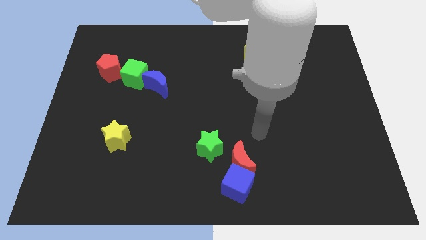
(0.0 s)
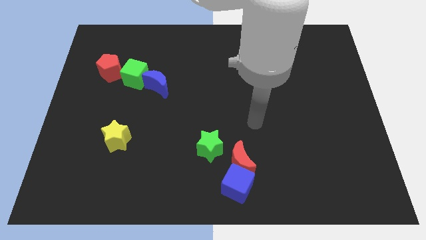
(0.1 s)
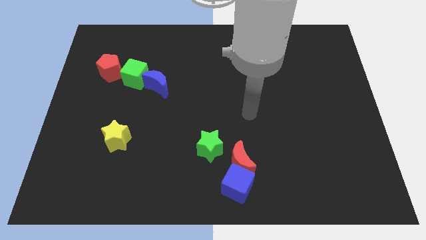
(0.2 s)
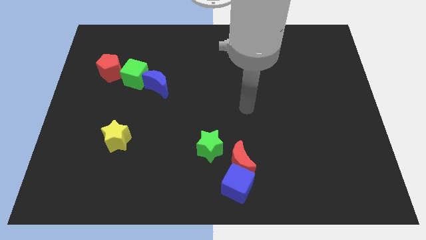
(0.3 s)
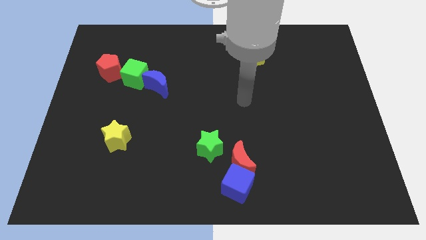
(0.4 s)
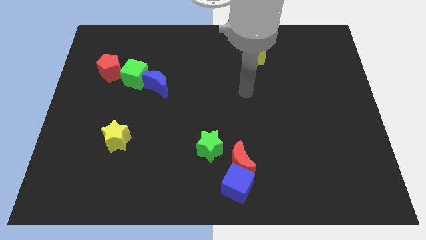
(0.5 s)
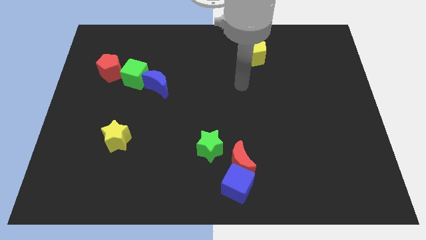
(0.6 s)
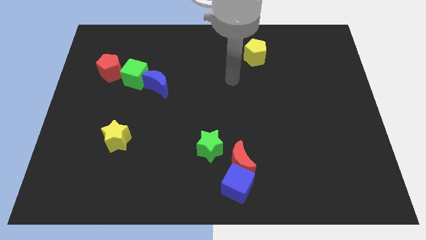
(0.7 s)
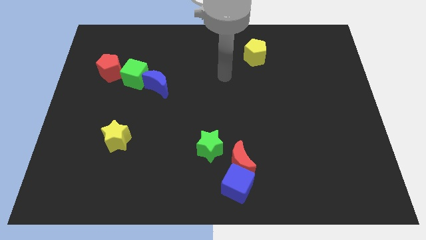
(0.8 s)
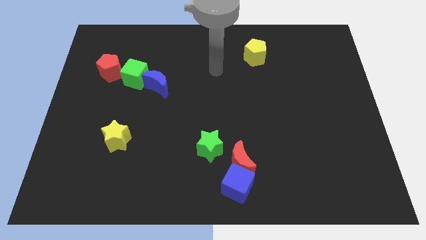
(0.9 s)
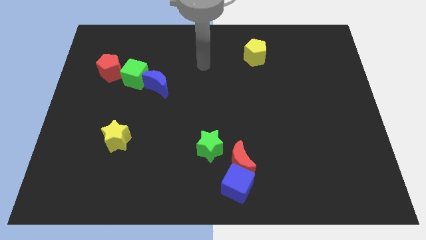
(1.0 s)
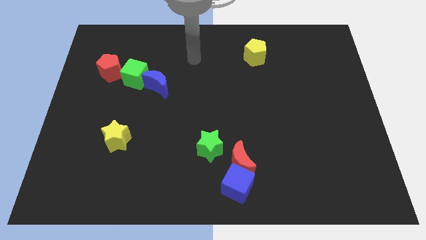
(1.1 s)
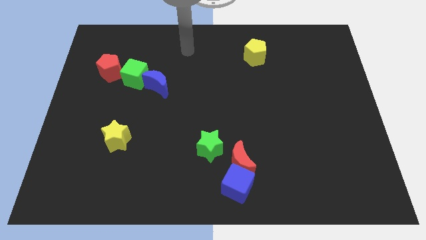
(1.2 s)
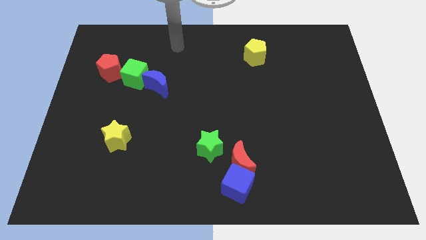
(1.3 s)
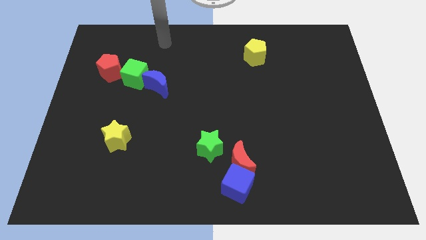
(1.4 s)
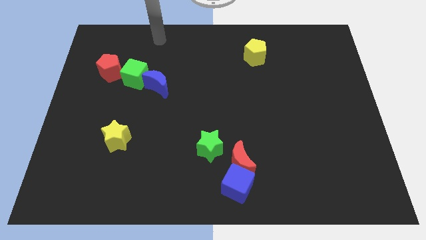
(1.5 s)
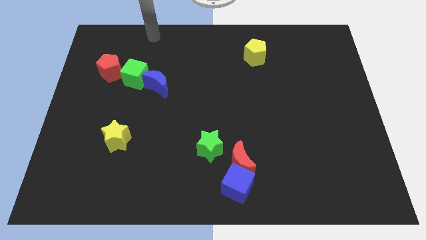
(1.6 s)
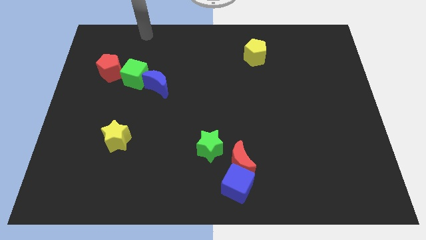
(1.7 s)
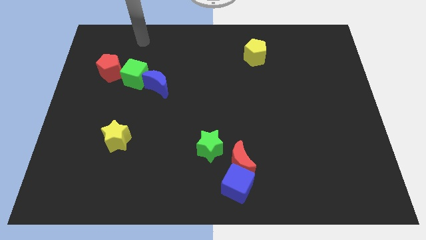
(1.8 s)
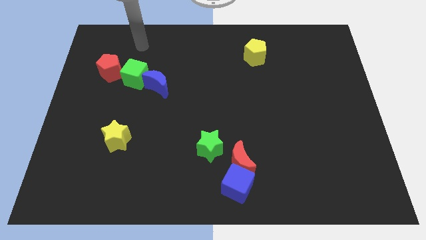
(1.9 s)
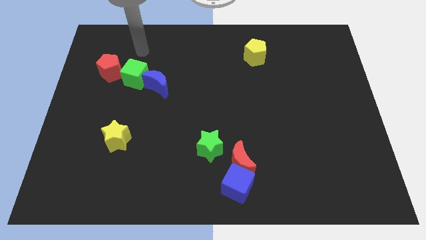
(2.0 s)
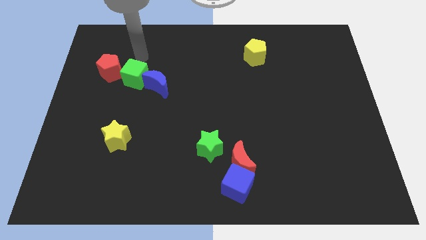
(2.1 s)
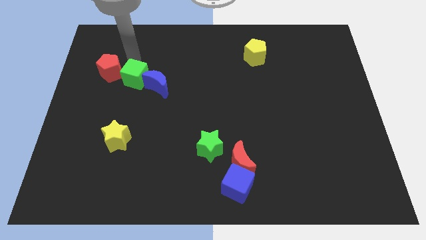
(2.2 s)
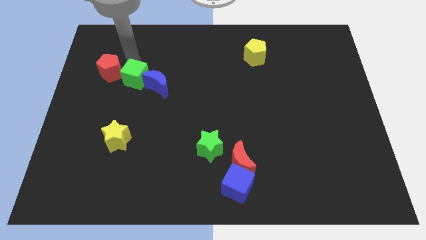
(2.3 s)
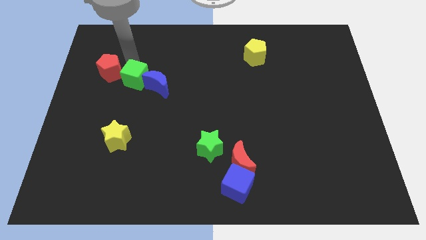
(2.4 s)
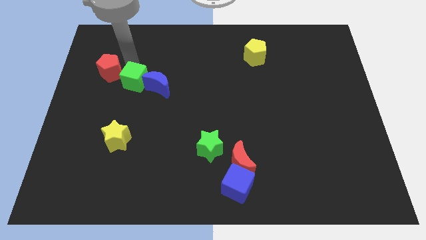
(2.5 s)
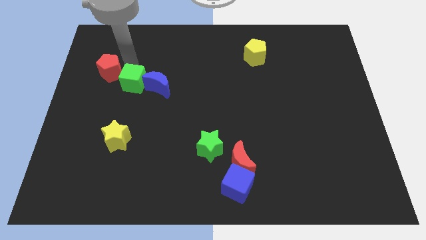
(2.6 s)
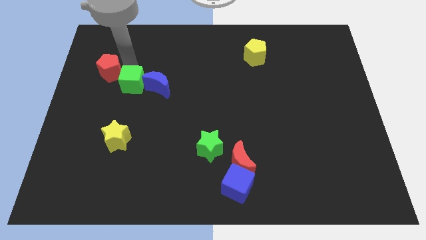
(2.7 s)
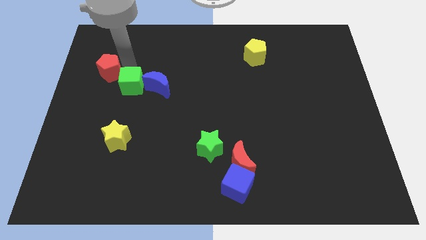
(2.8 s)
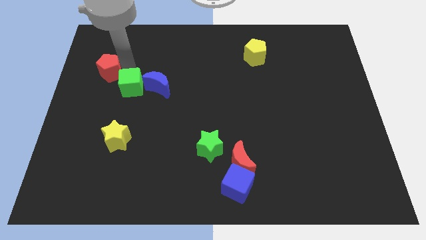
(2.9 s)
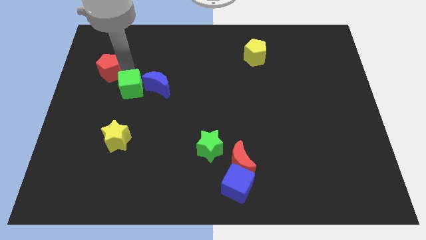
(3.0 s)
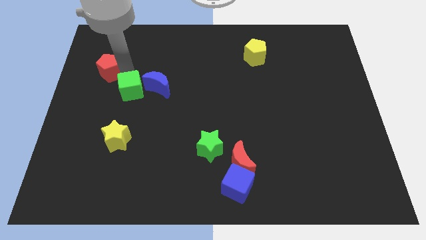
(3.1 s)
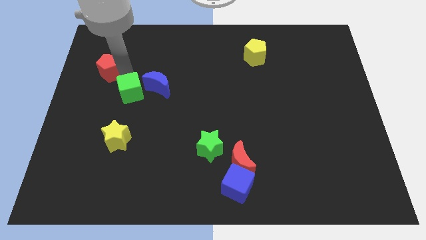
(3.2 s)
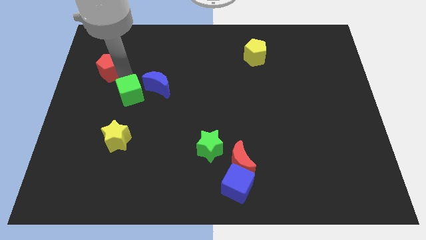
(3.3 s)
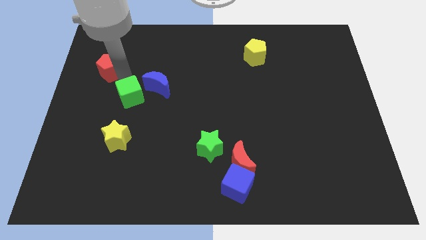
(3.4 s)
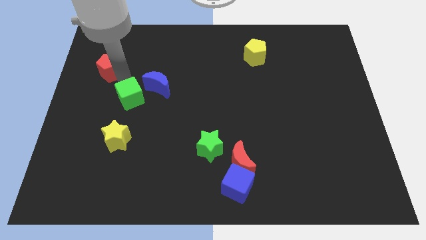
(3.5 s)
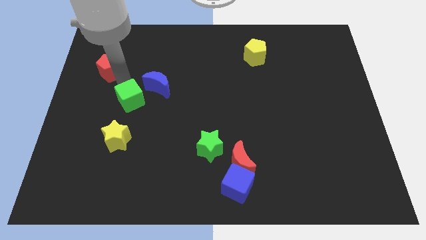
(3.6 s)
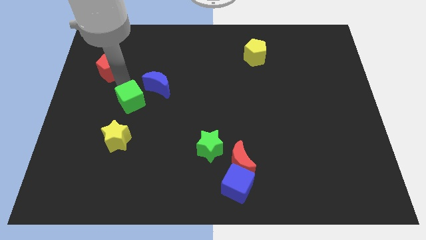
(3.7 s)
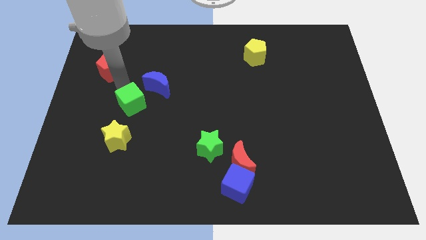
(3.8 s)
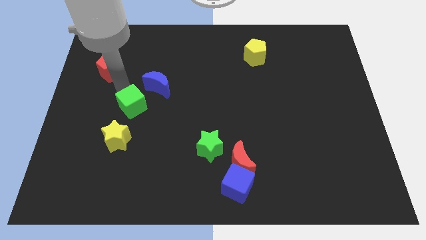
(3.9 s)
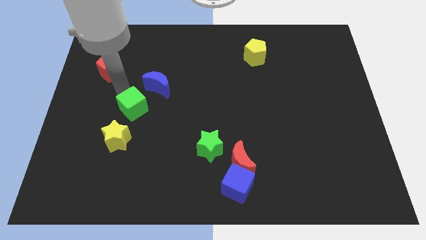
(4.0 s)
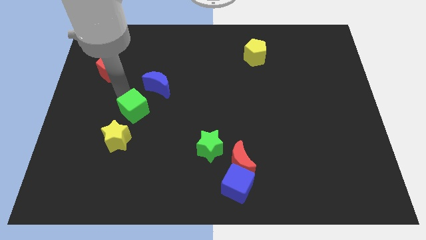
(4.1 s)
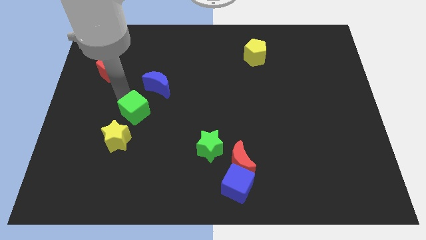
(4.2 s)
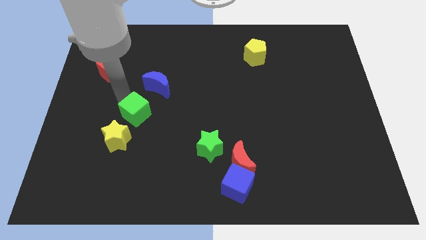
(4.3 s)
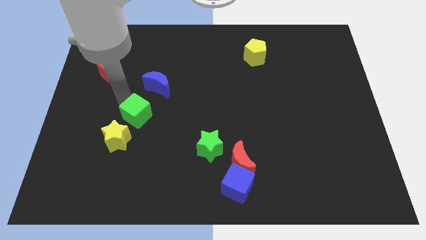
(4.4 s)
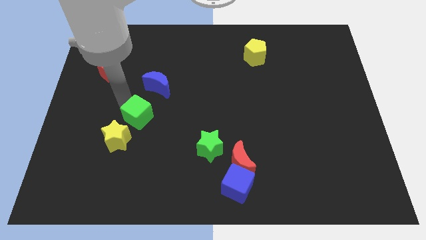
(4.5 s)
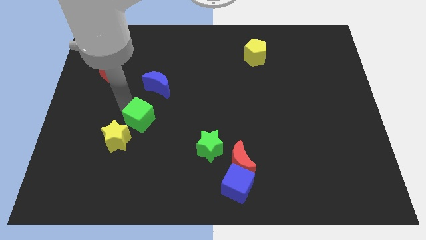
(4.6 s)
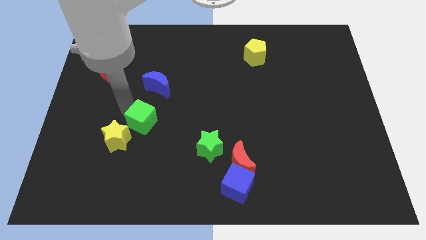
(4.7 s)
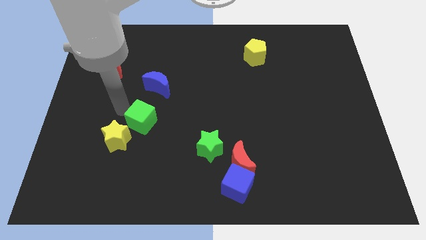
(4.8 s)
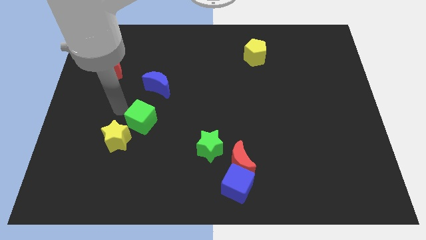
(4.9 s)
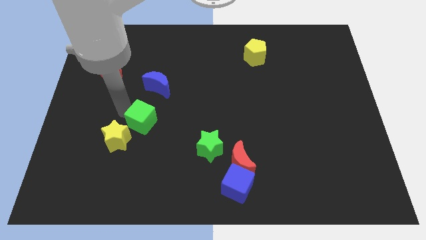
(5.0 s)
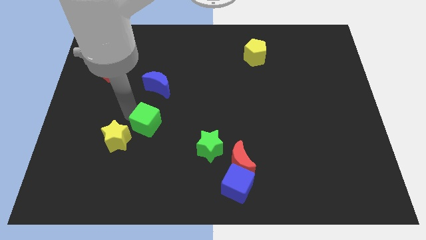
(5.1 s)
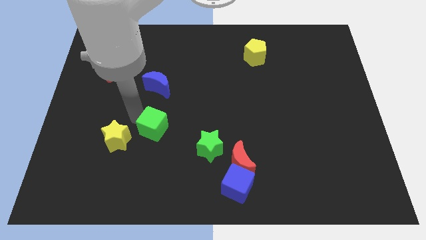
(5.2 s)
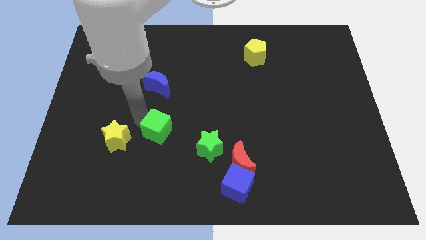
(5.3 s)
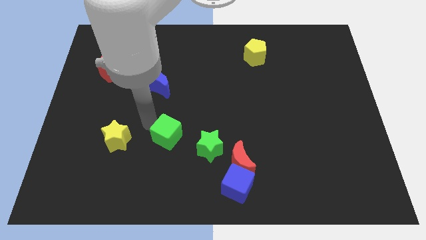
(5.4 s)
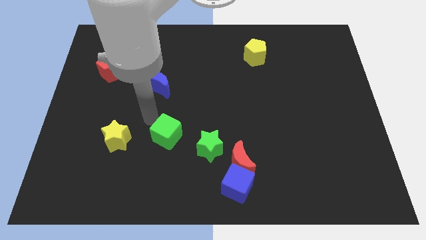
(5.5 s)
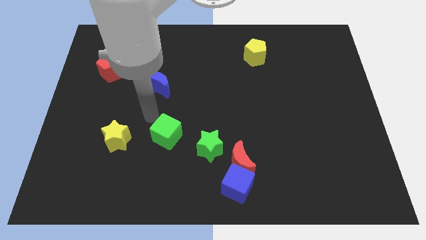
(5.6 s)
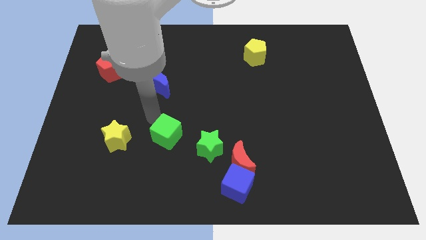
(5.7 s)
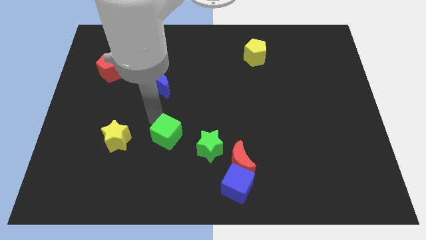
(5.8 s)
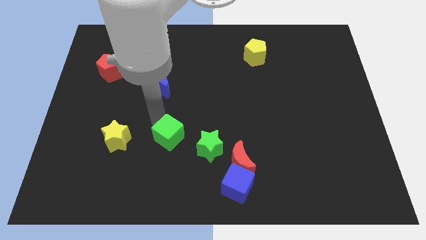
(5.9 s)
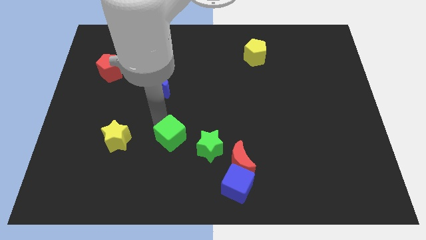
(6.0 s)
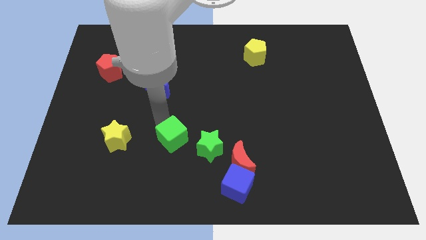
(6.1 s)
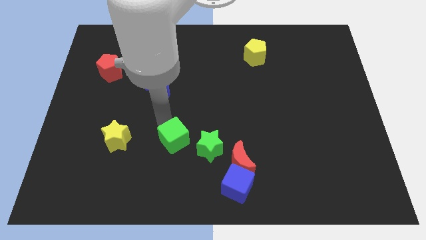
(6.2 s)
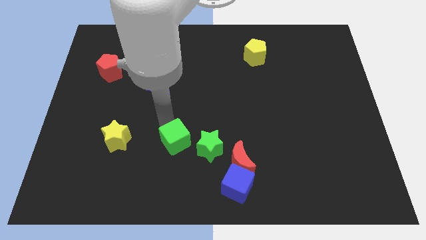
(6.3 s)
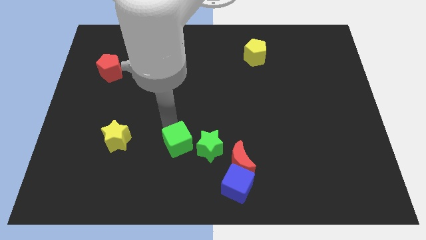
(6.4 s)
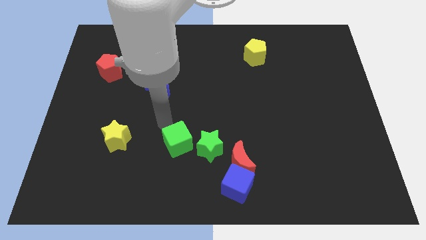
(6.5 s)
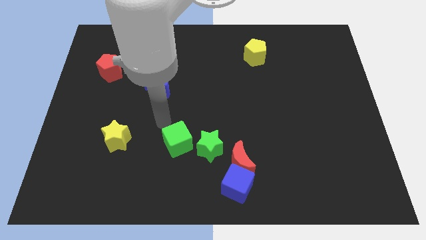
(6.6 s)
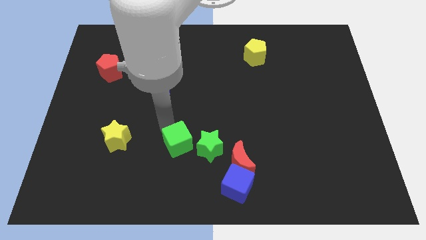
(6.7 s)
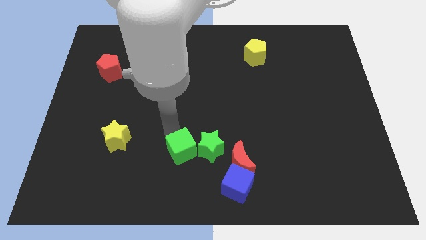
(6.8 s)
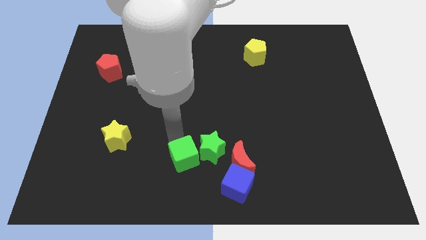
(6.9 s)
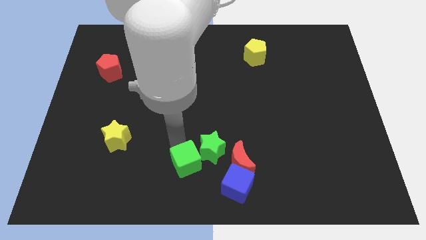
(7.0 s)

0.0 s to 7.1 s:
put the green cube to the bottom side
